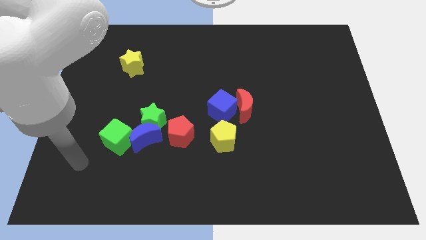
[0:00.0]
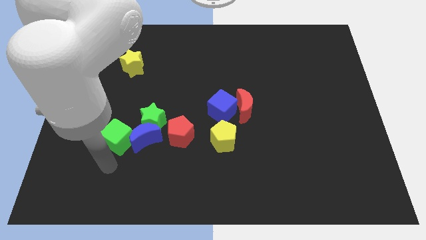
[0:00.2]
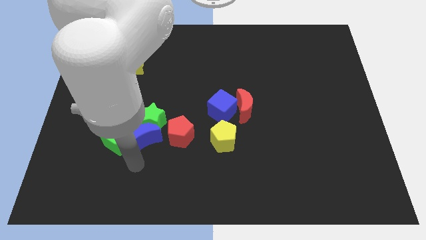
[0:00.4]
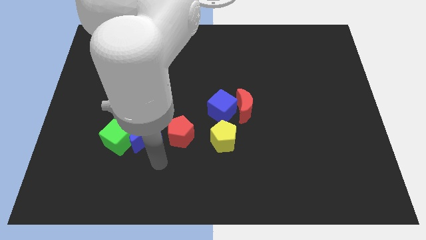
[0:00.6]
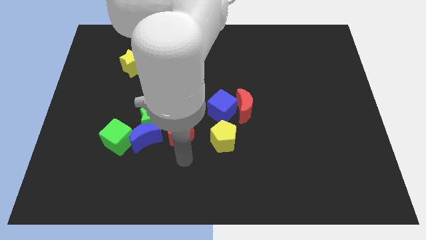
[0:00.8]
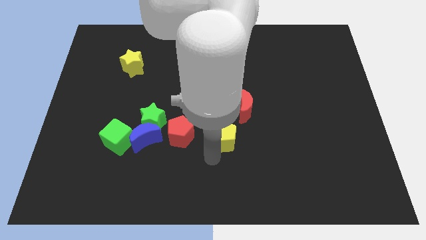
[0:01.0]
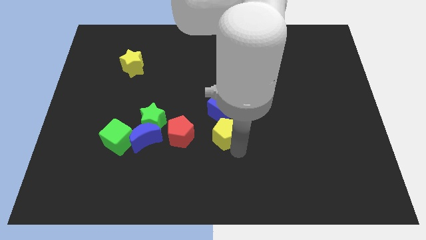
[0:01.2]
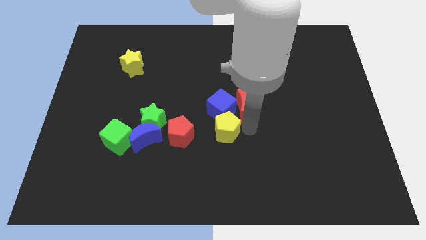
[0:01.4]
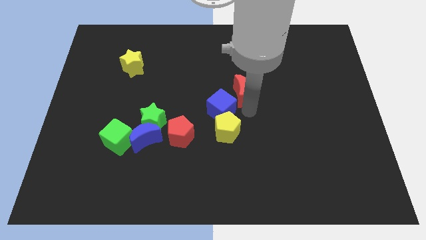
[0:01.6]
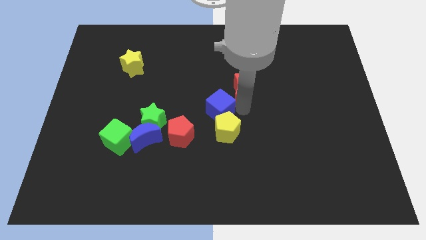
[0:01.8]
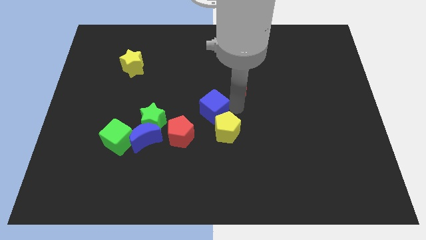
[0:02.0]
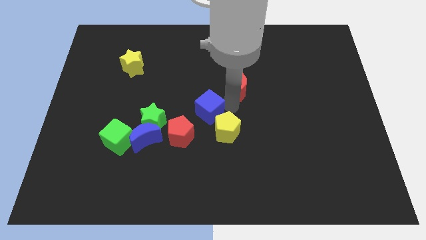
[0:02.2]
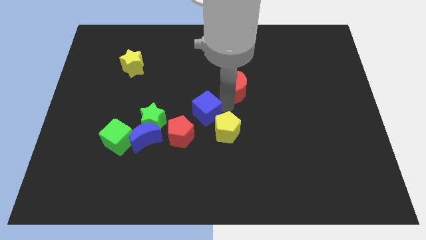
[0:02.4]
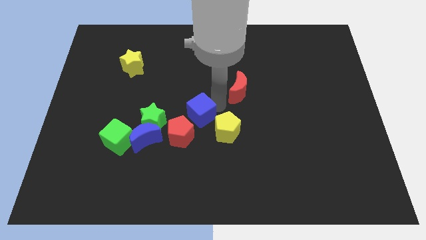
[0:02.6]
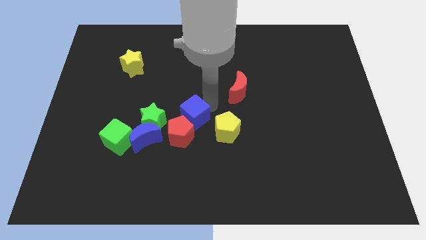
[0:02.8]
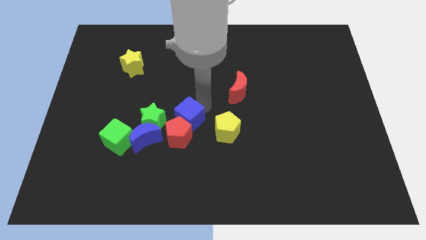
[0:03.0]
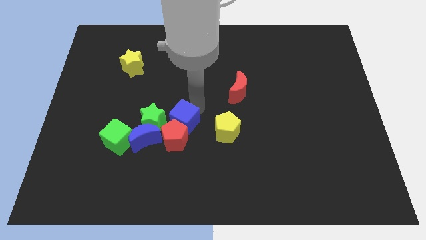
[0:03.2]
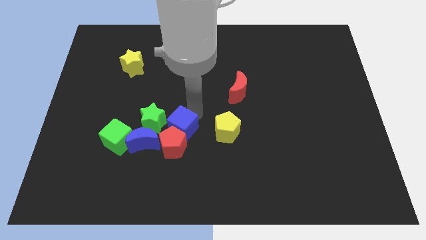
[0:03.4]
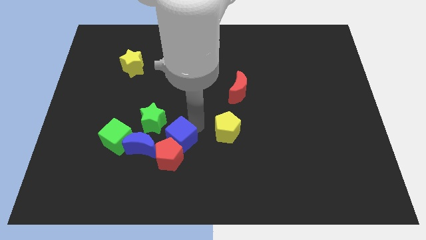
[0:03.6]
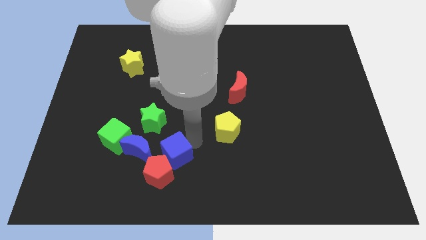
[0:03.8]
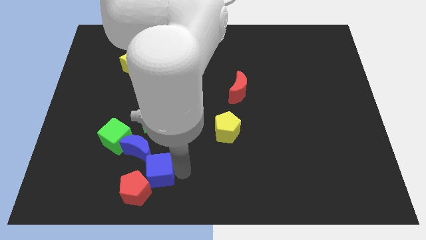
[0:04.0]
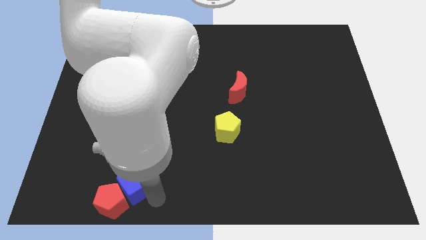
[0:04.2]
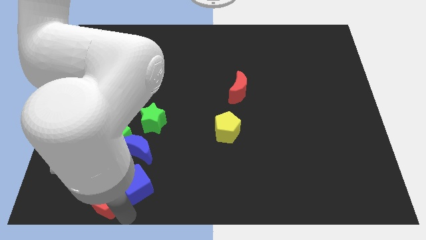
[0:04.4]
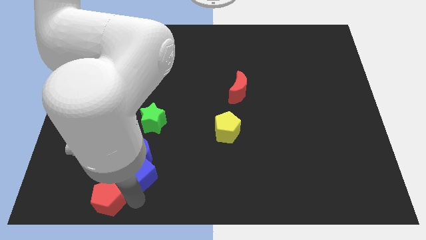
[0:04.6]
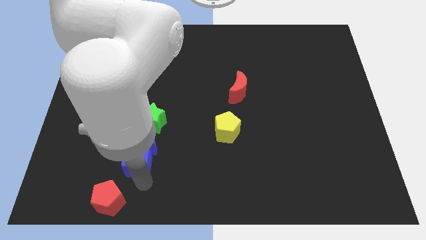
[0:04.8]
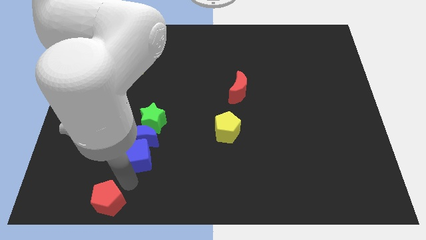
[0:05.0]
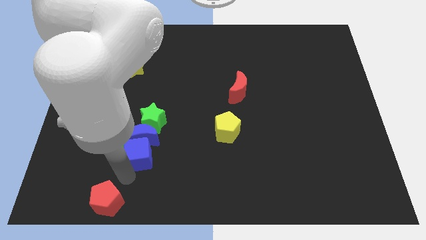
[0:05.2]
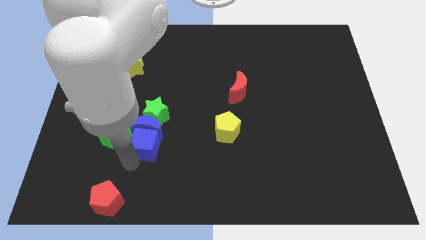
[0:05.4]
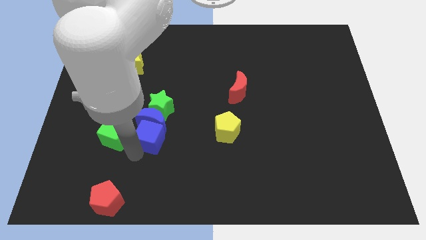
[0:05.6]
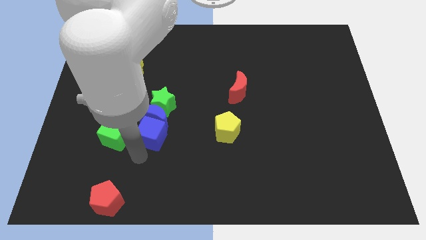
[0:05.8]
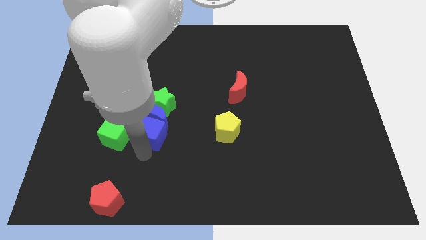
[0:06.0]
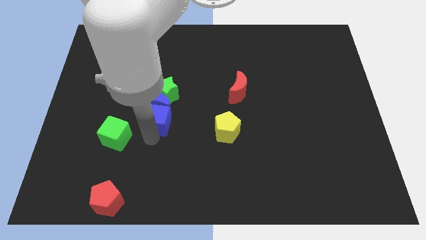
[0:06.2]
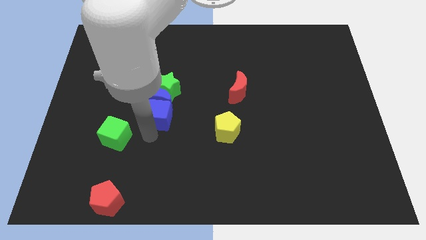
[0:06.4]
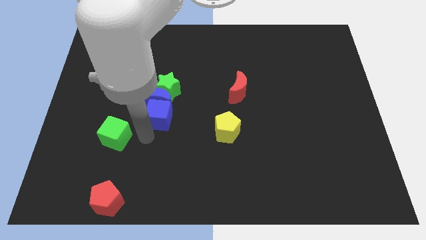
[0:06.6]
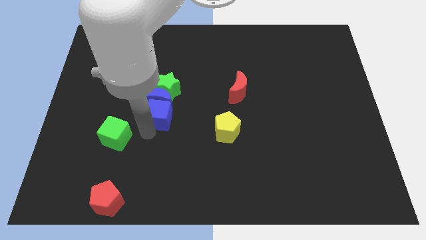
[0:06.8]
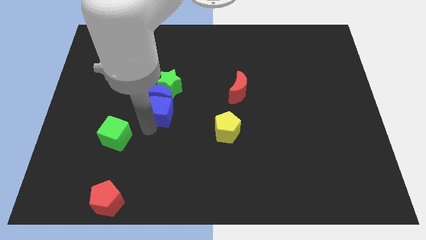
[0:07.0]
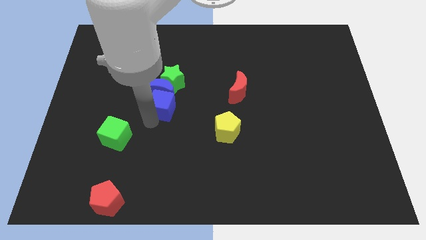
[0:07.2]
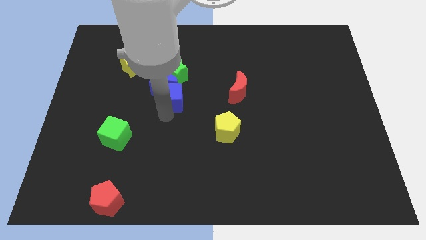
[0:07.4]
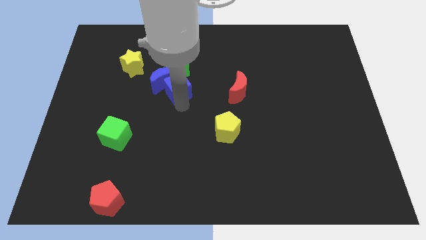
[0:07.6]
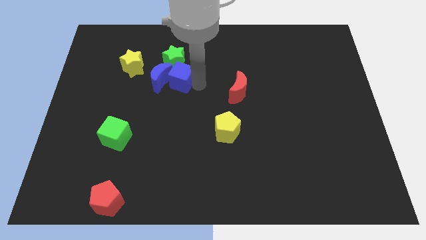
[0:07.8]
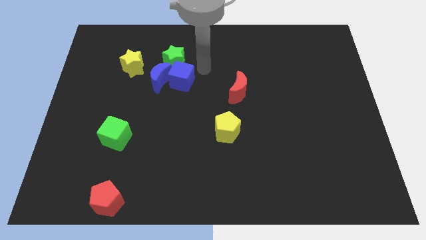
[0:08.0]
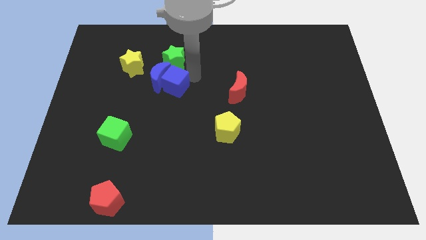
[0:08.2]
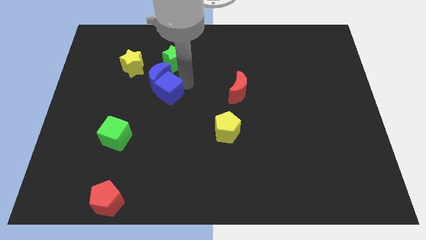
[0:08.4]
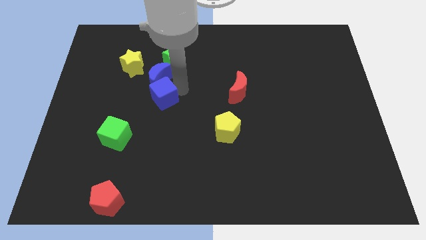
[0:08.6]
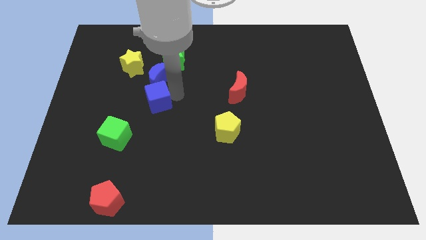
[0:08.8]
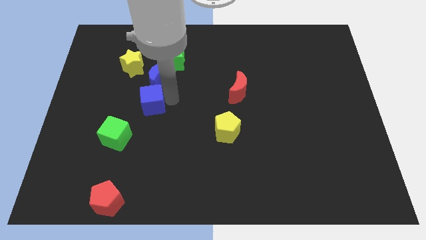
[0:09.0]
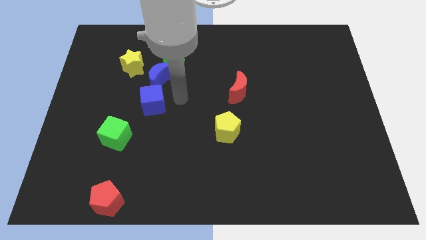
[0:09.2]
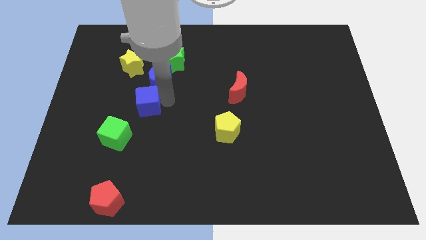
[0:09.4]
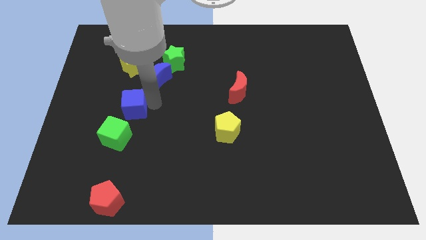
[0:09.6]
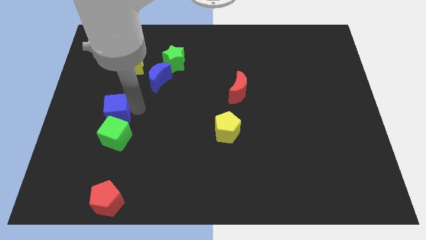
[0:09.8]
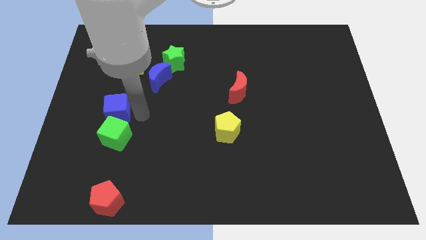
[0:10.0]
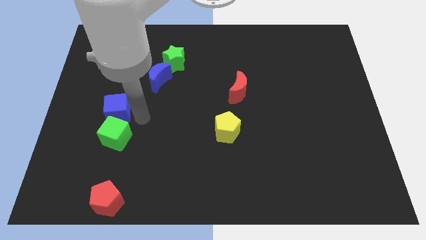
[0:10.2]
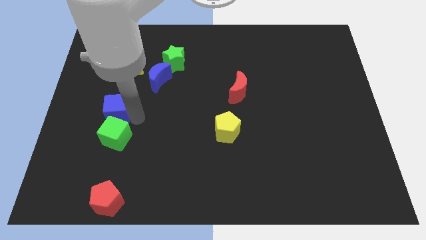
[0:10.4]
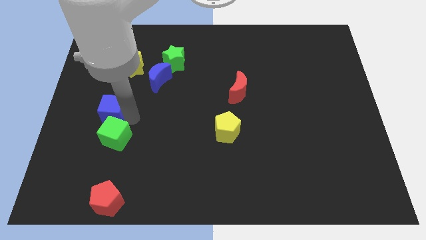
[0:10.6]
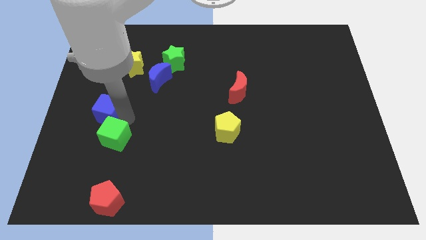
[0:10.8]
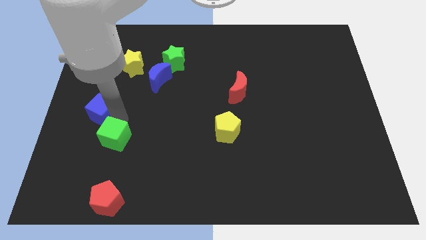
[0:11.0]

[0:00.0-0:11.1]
push the blue cube to the left side

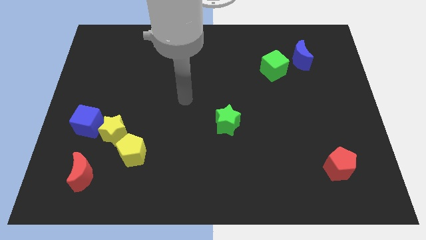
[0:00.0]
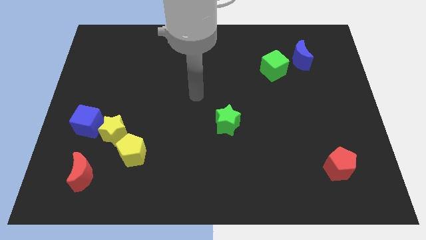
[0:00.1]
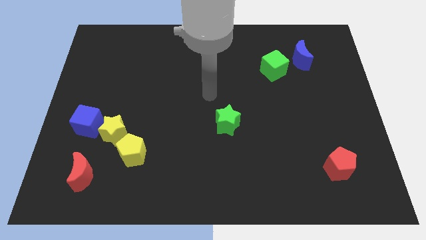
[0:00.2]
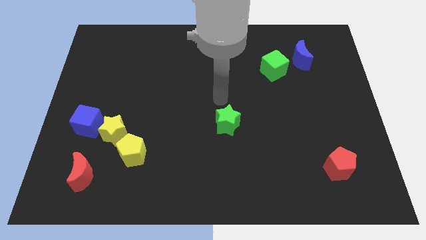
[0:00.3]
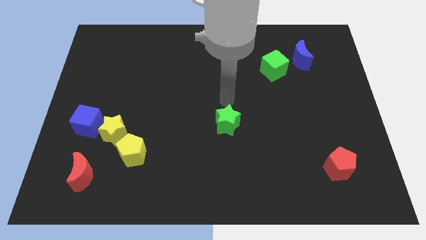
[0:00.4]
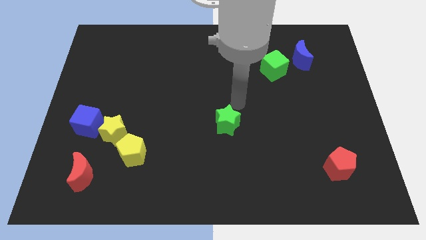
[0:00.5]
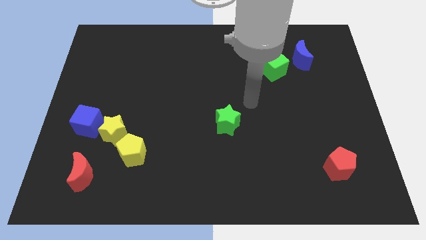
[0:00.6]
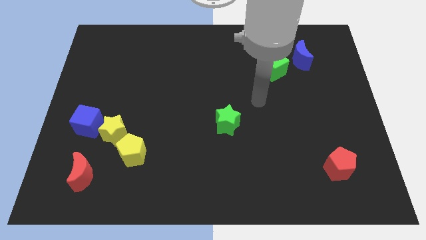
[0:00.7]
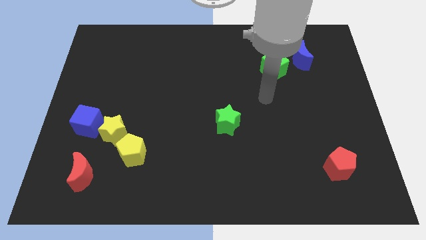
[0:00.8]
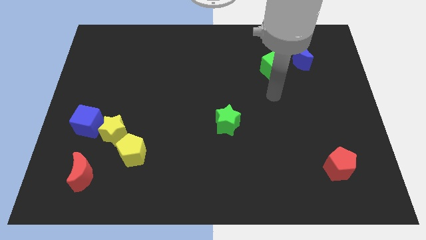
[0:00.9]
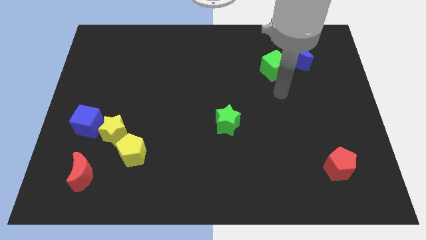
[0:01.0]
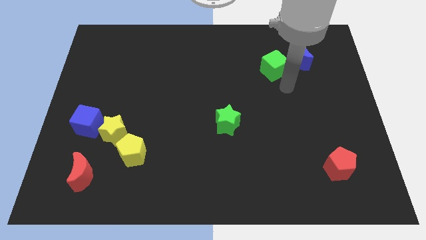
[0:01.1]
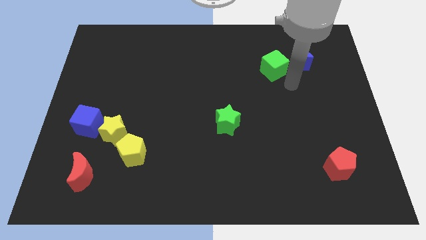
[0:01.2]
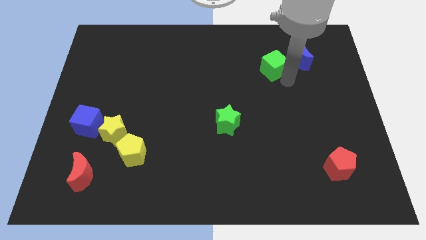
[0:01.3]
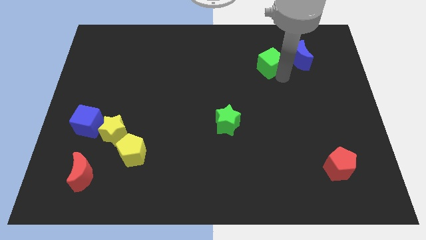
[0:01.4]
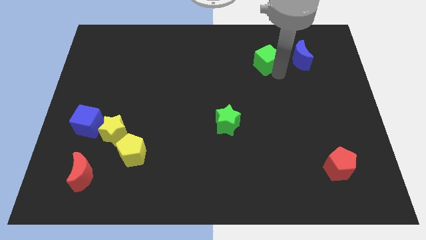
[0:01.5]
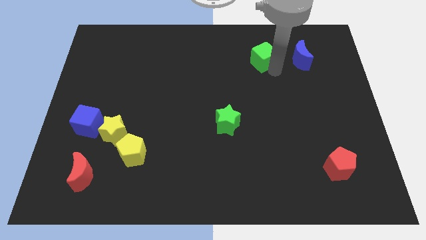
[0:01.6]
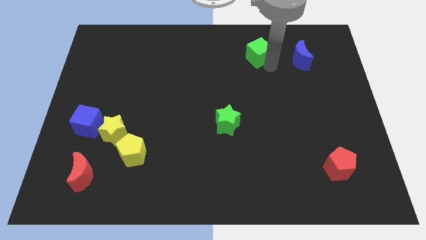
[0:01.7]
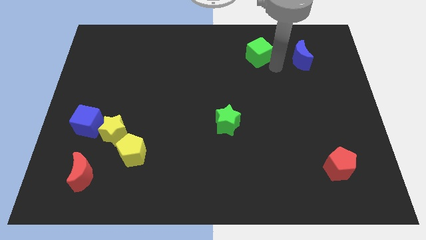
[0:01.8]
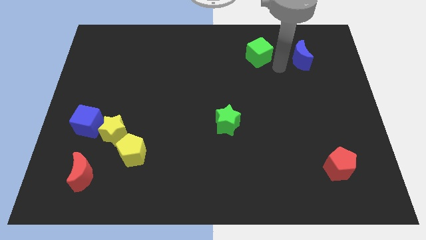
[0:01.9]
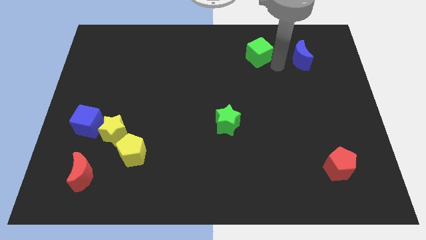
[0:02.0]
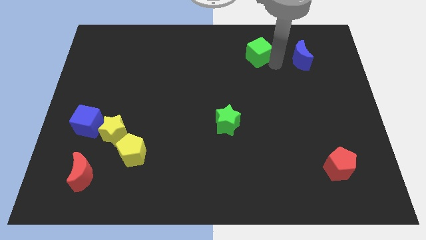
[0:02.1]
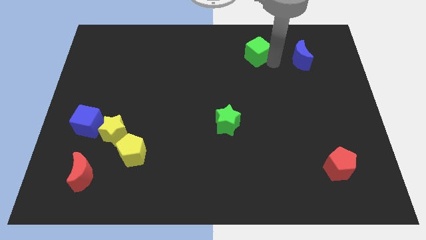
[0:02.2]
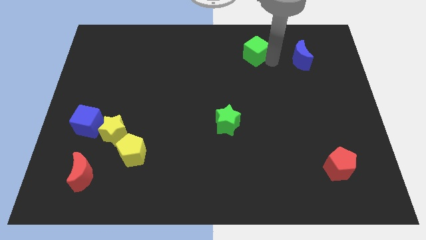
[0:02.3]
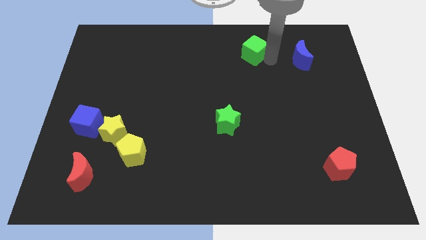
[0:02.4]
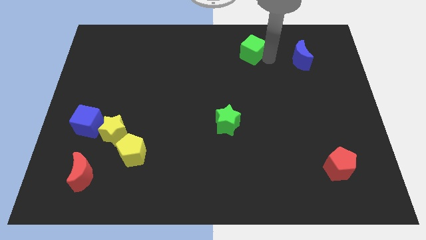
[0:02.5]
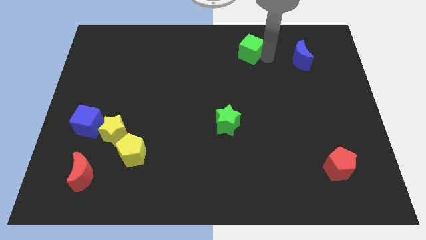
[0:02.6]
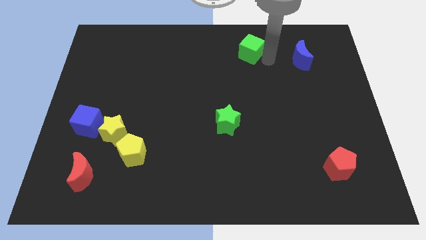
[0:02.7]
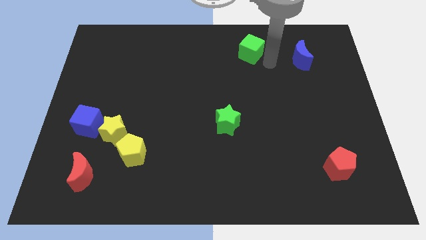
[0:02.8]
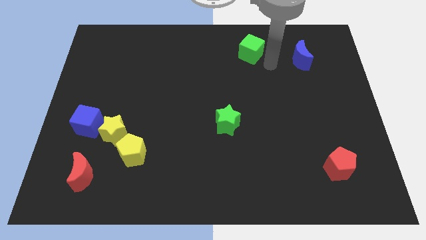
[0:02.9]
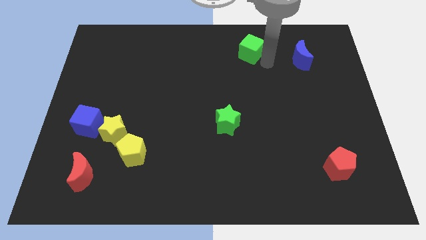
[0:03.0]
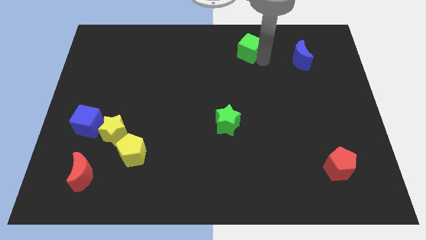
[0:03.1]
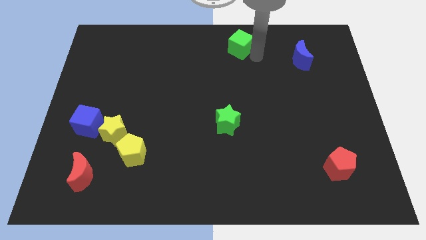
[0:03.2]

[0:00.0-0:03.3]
move the green cube to the top
